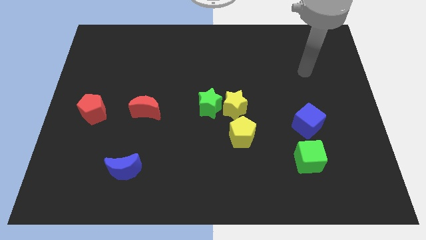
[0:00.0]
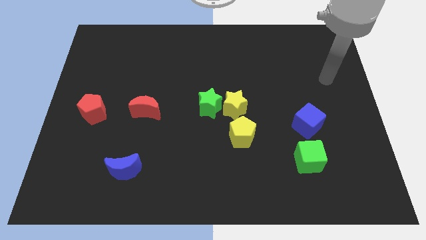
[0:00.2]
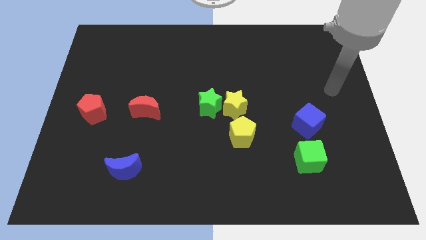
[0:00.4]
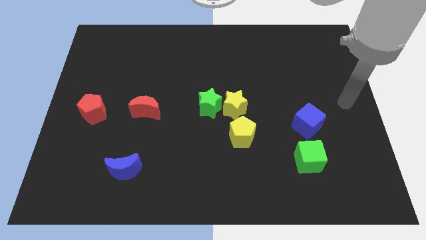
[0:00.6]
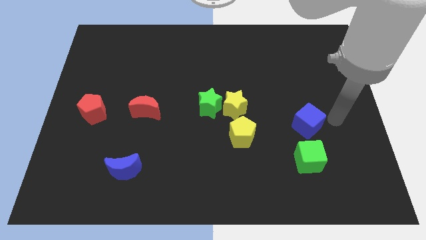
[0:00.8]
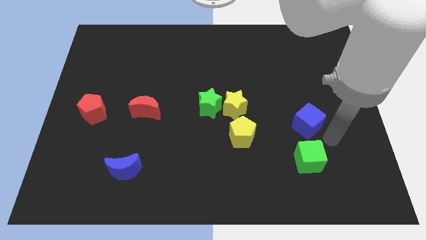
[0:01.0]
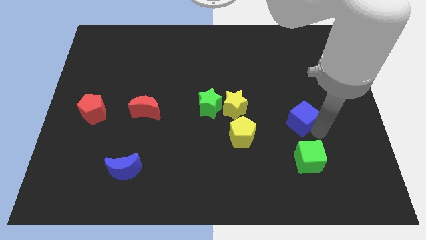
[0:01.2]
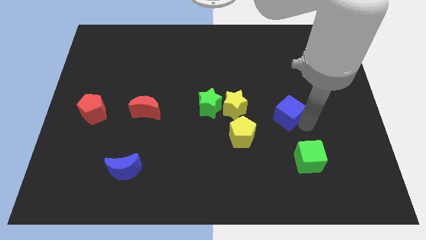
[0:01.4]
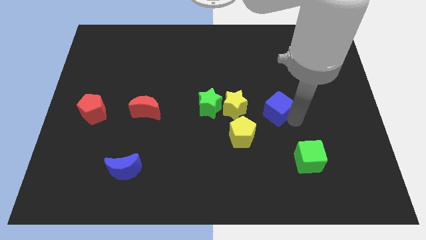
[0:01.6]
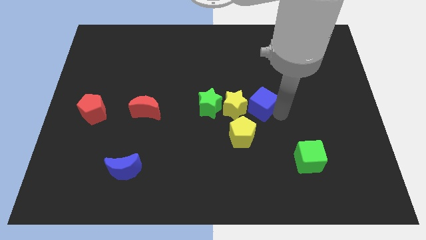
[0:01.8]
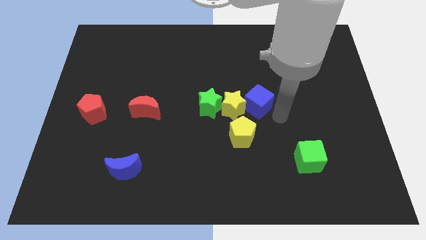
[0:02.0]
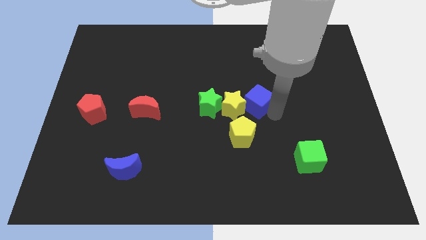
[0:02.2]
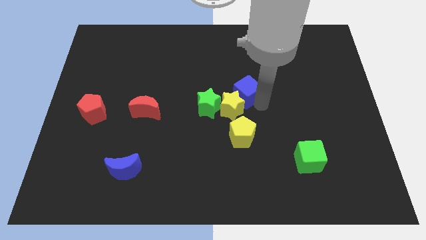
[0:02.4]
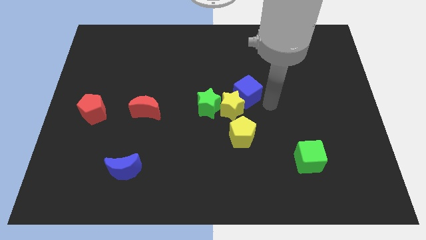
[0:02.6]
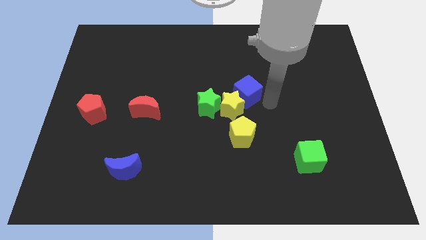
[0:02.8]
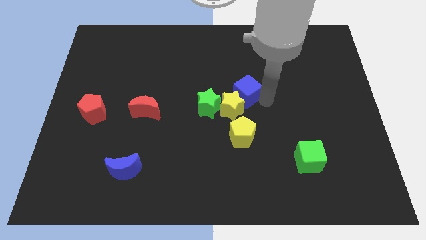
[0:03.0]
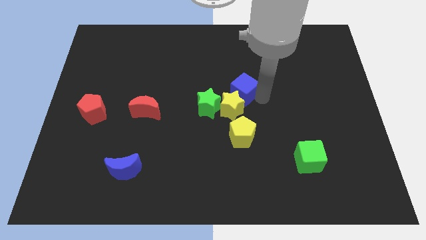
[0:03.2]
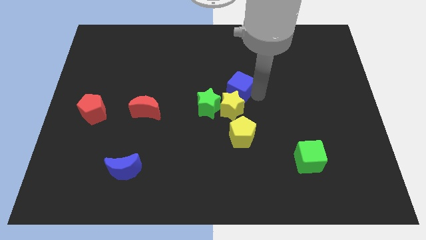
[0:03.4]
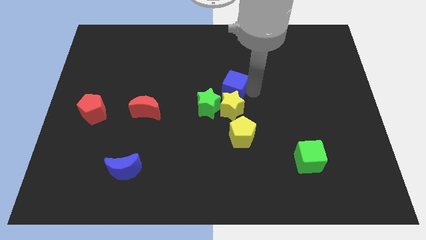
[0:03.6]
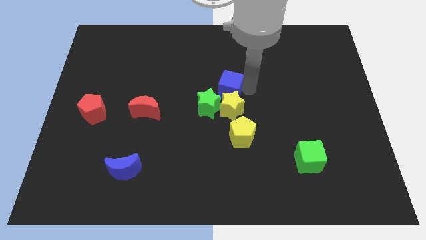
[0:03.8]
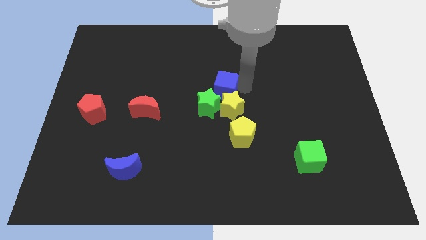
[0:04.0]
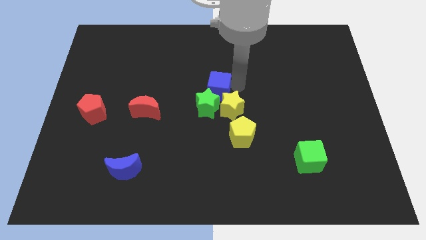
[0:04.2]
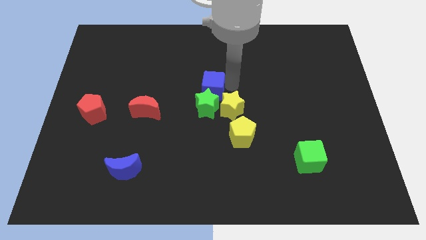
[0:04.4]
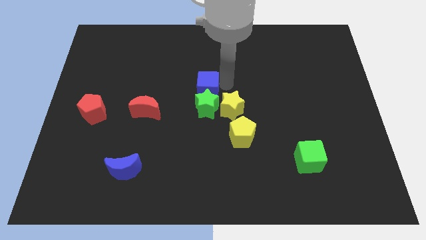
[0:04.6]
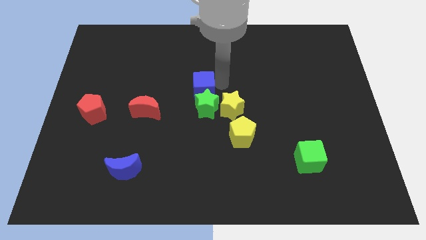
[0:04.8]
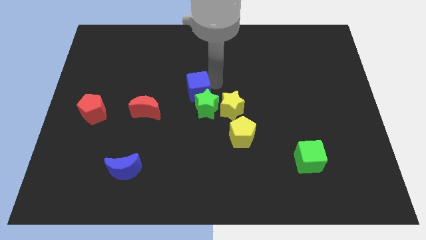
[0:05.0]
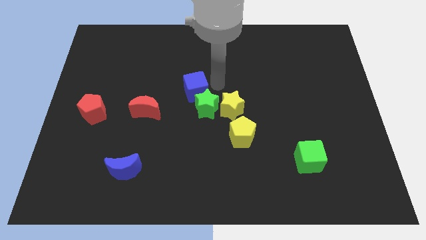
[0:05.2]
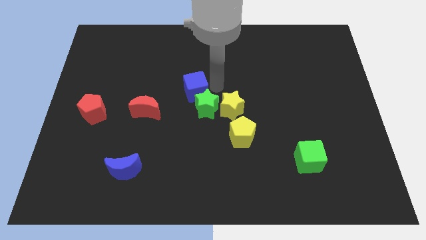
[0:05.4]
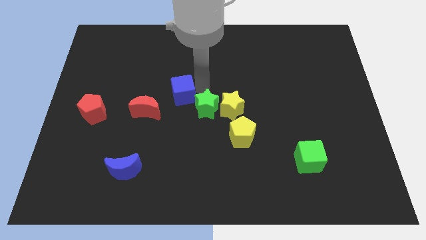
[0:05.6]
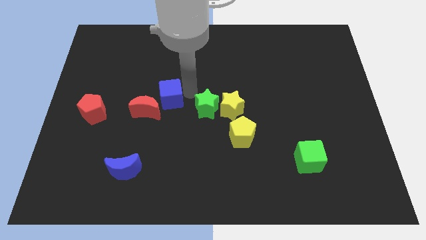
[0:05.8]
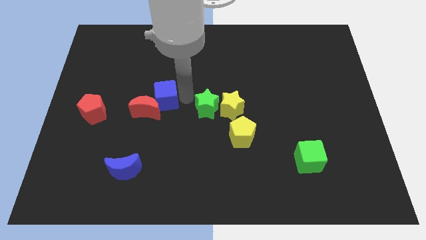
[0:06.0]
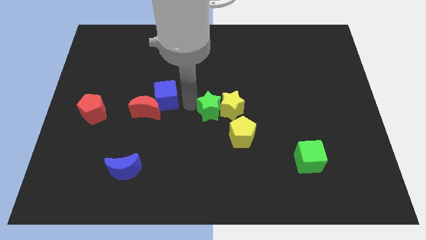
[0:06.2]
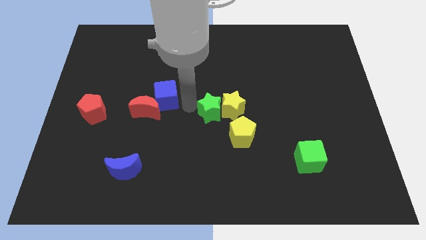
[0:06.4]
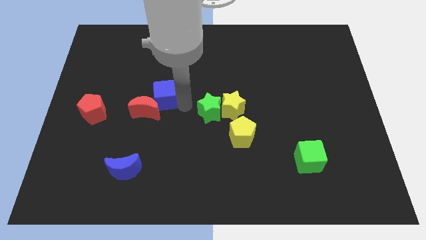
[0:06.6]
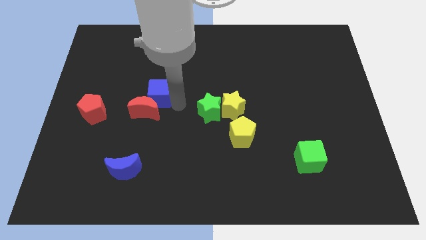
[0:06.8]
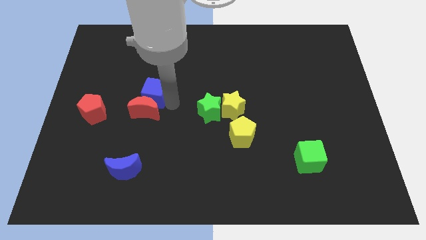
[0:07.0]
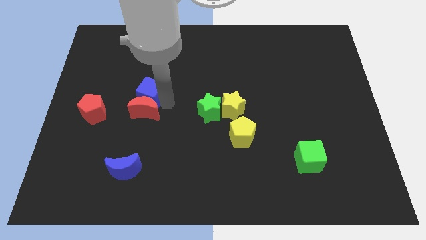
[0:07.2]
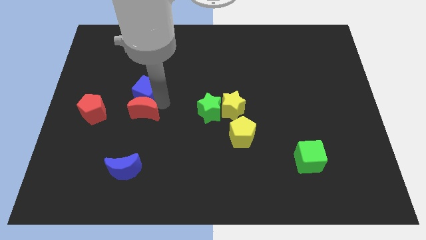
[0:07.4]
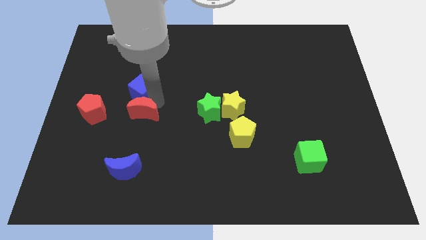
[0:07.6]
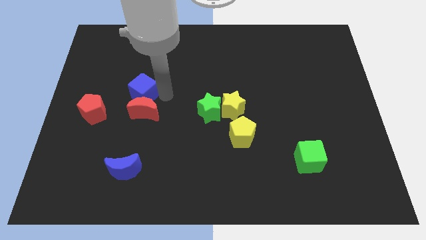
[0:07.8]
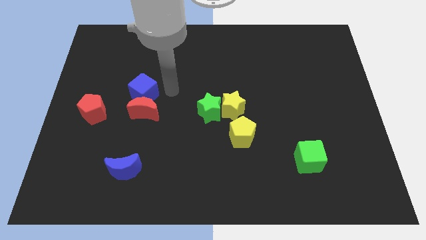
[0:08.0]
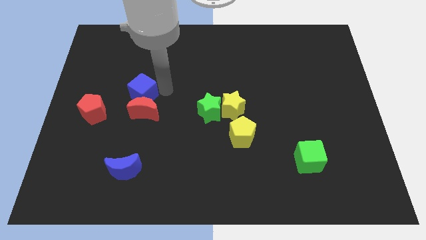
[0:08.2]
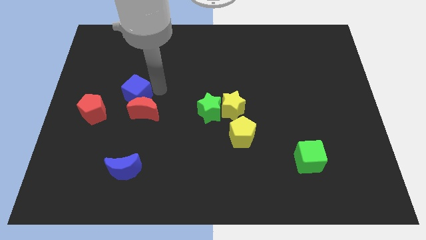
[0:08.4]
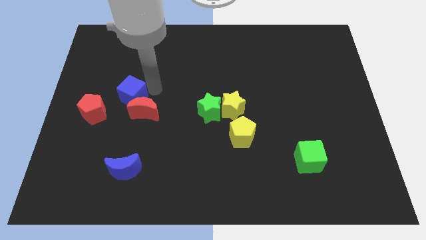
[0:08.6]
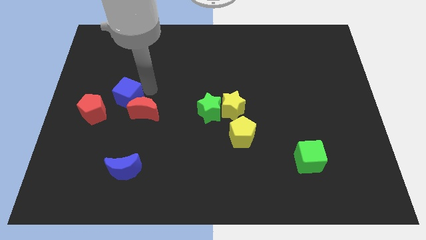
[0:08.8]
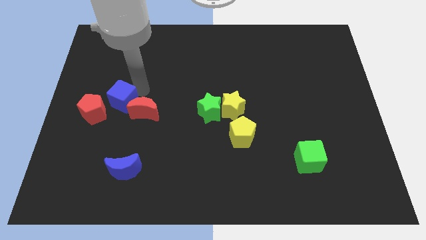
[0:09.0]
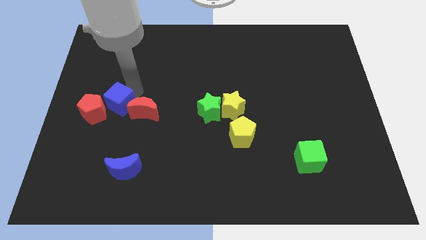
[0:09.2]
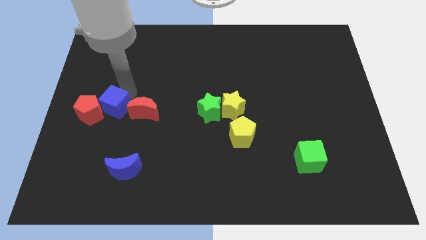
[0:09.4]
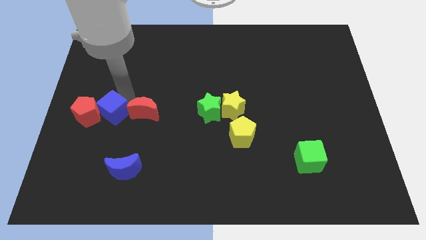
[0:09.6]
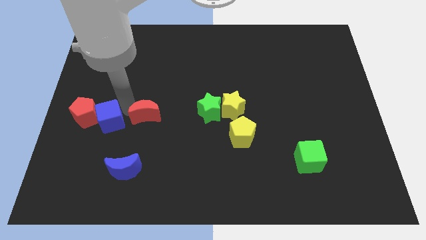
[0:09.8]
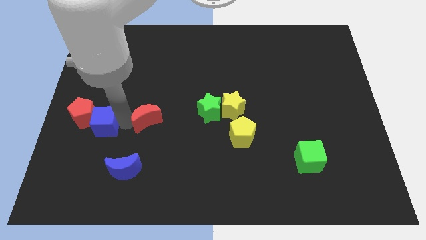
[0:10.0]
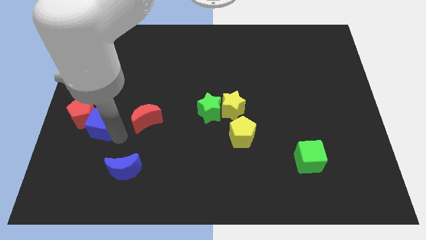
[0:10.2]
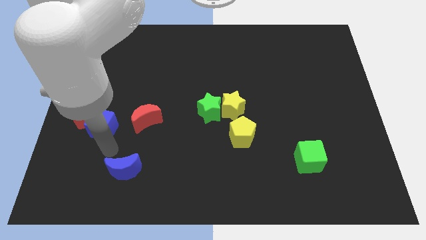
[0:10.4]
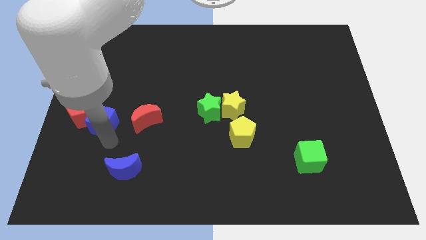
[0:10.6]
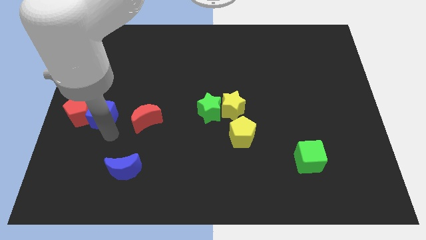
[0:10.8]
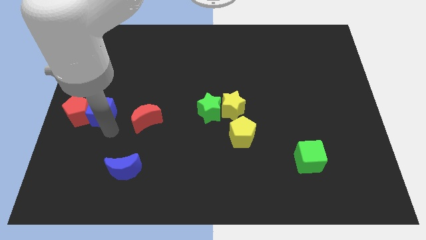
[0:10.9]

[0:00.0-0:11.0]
put the blue cube to the left side of the board

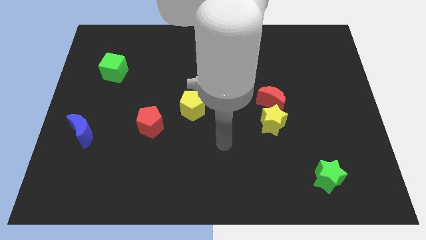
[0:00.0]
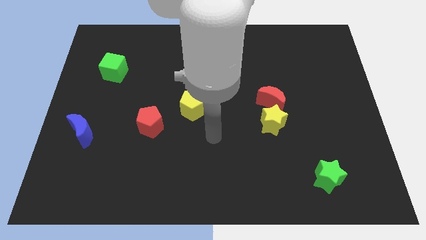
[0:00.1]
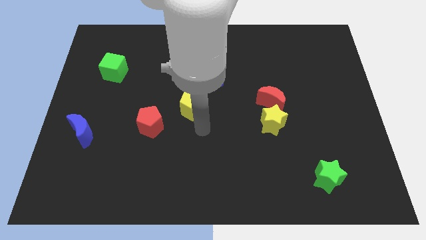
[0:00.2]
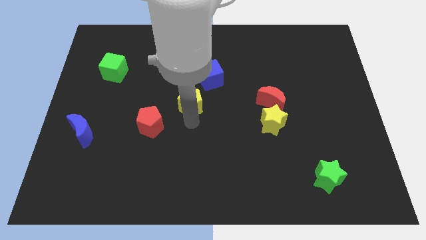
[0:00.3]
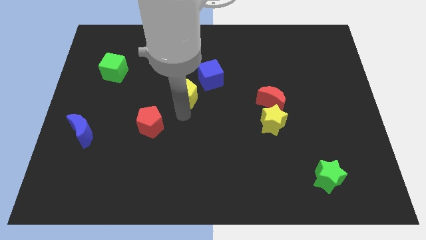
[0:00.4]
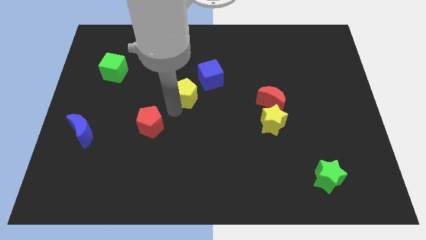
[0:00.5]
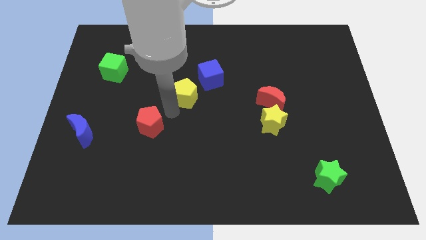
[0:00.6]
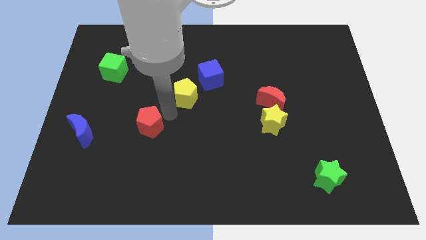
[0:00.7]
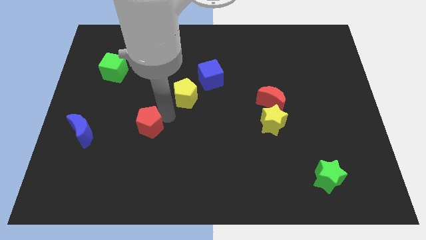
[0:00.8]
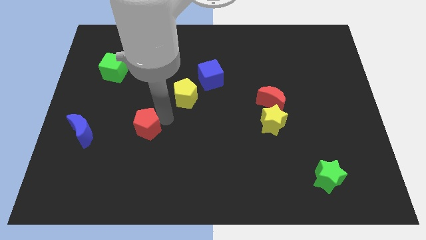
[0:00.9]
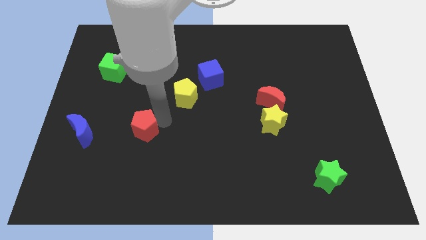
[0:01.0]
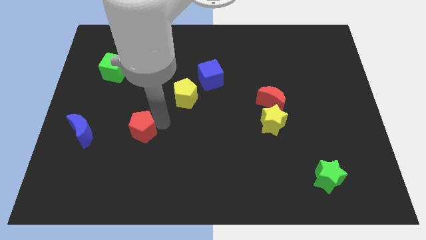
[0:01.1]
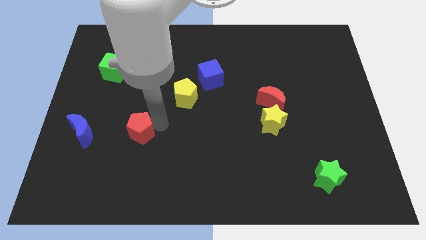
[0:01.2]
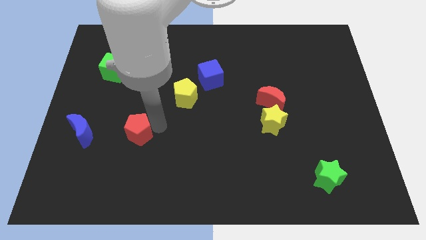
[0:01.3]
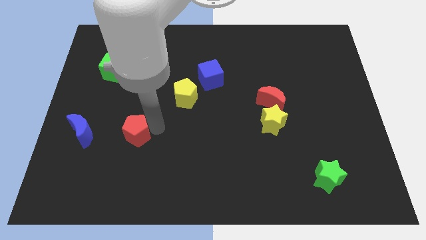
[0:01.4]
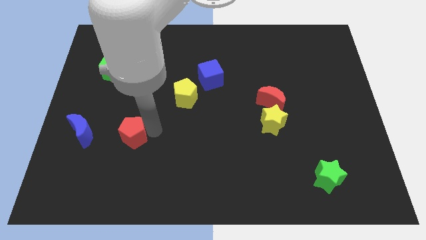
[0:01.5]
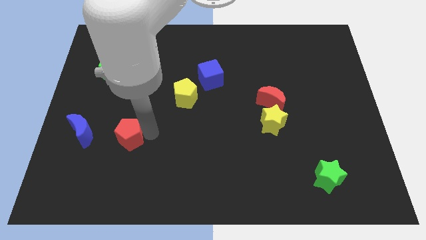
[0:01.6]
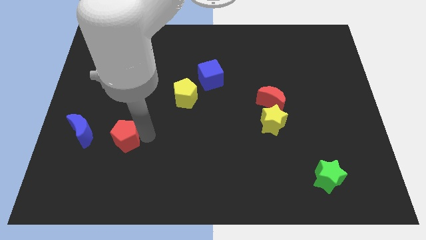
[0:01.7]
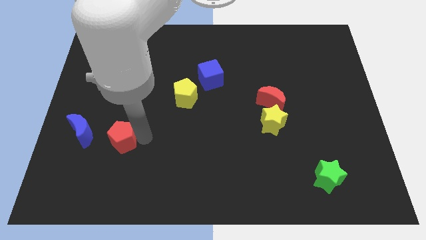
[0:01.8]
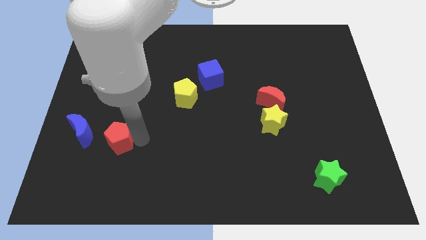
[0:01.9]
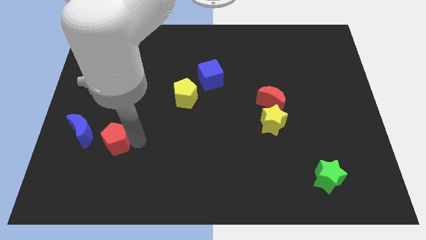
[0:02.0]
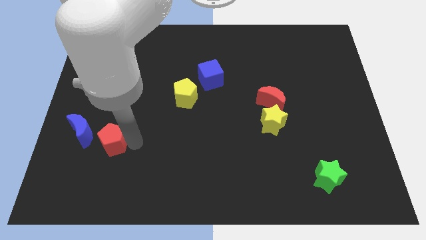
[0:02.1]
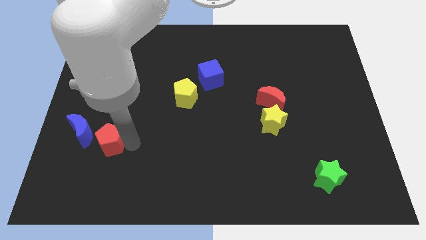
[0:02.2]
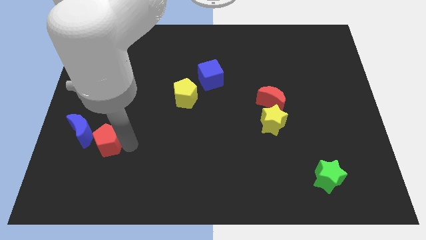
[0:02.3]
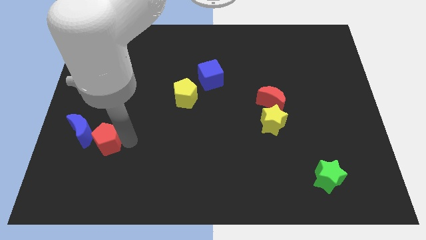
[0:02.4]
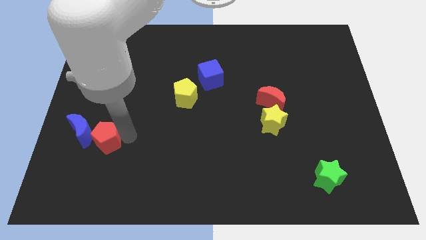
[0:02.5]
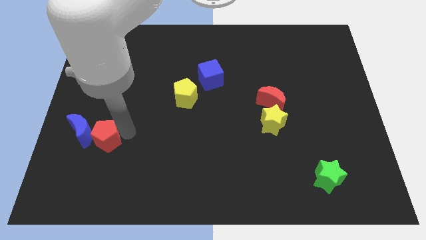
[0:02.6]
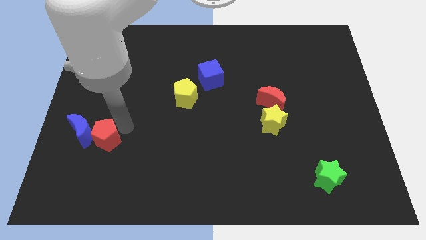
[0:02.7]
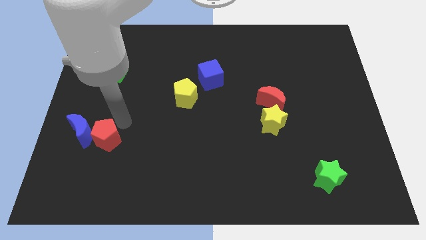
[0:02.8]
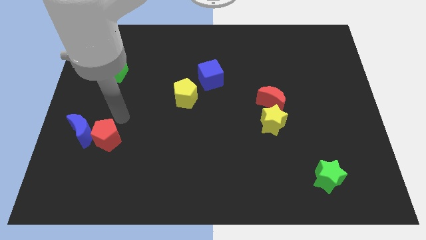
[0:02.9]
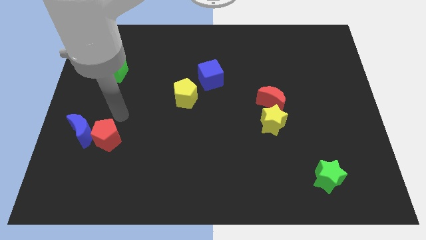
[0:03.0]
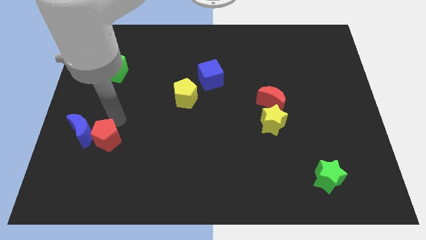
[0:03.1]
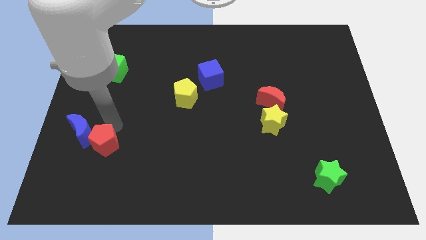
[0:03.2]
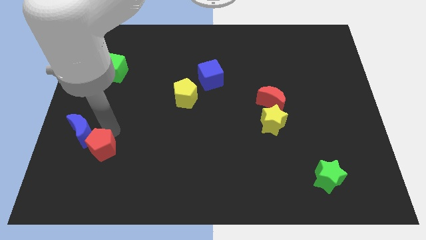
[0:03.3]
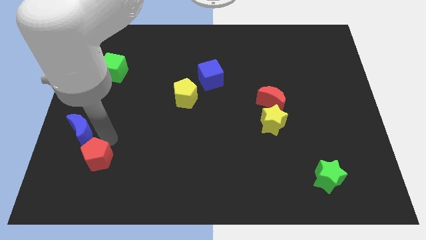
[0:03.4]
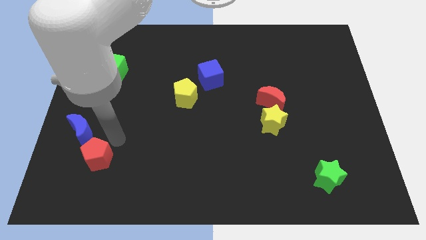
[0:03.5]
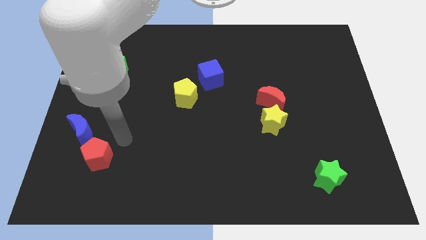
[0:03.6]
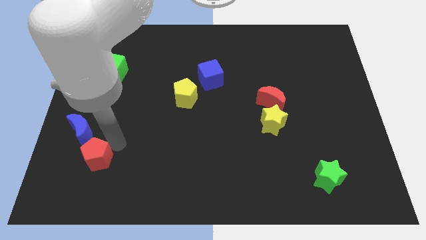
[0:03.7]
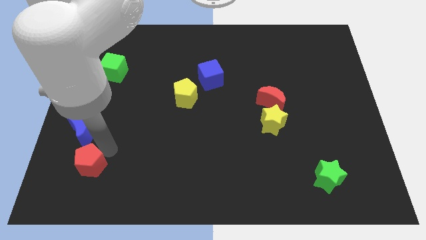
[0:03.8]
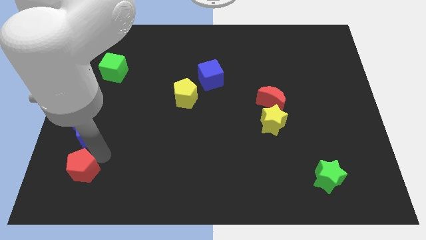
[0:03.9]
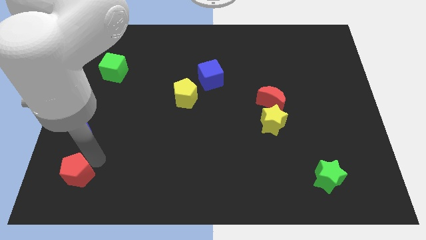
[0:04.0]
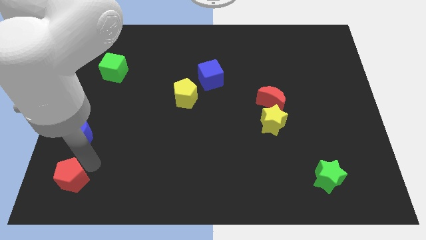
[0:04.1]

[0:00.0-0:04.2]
push the red pentagon to the bottom left of the board
